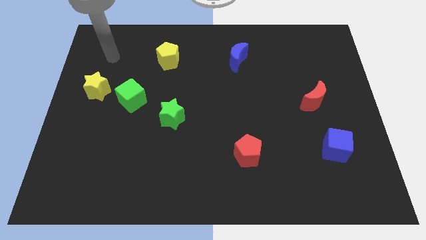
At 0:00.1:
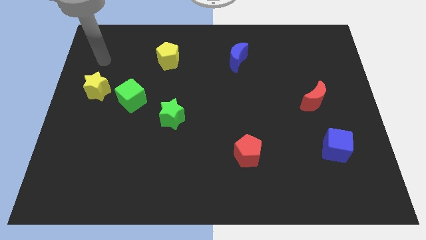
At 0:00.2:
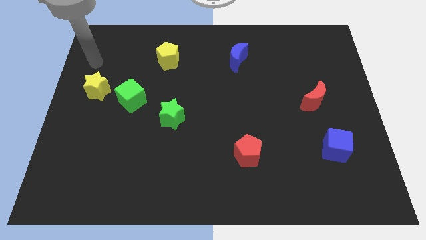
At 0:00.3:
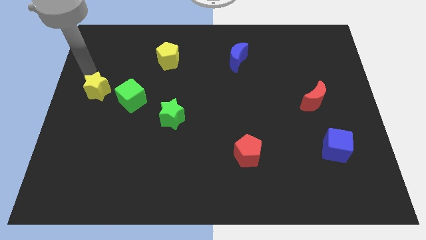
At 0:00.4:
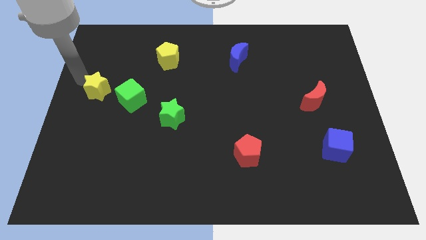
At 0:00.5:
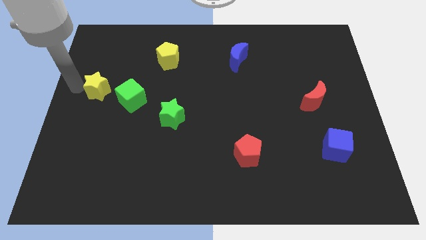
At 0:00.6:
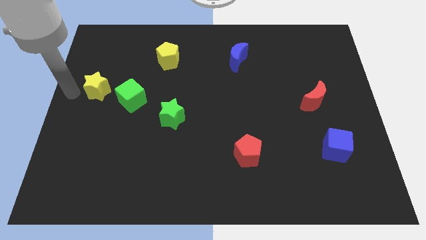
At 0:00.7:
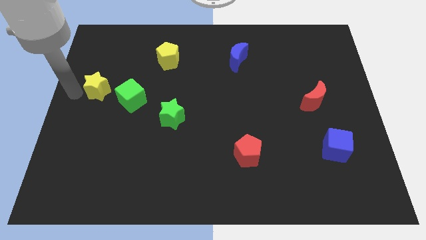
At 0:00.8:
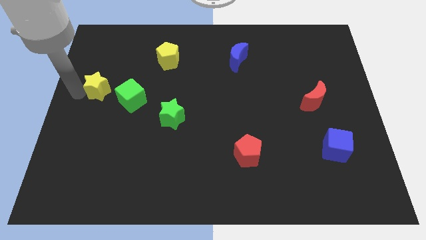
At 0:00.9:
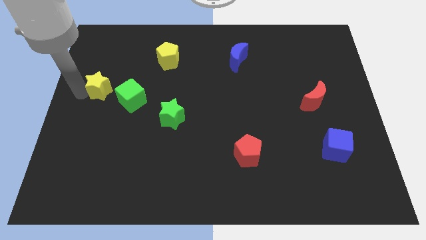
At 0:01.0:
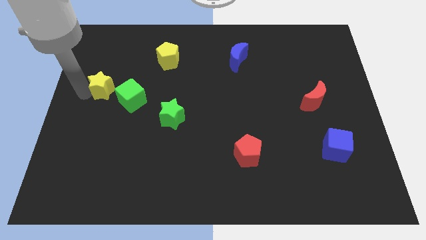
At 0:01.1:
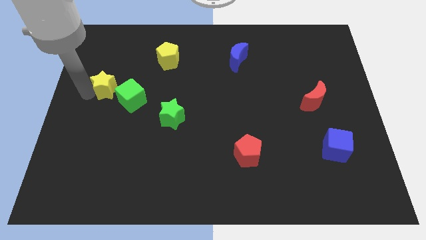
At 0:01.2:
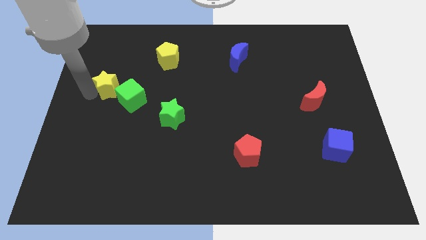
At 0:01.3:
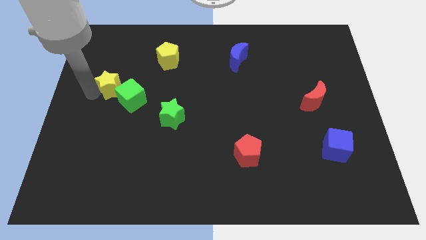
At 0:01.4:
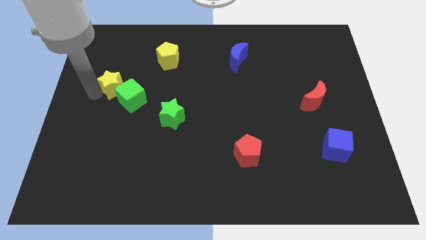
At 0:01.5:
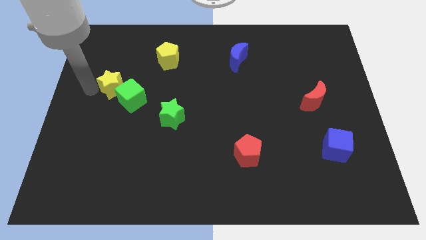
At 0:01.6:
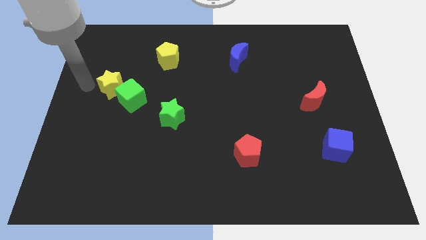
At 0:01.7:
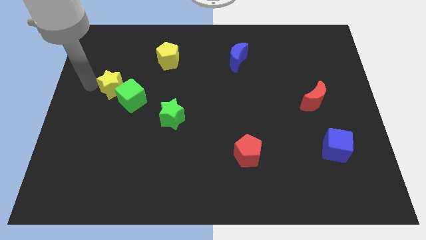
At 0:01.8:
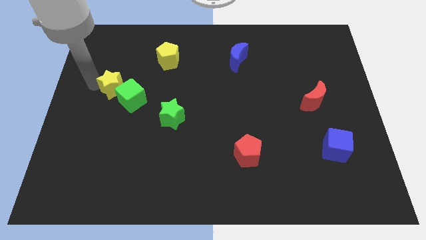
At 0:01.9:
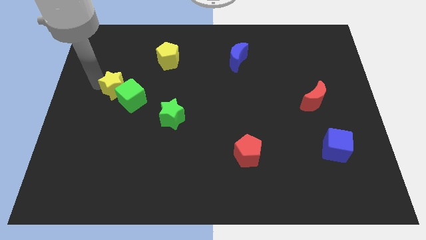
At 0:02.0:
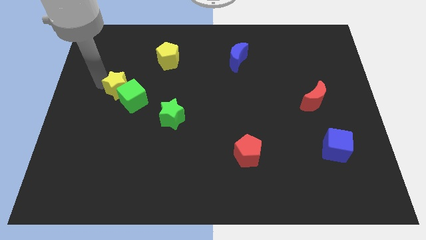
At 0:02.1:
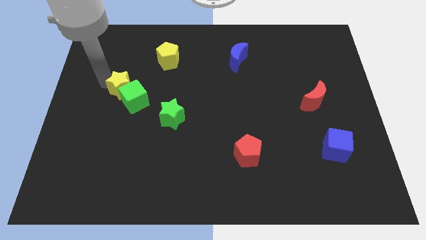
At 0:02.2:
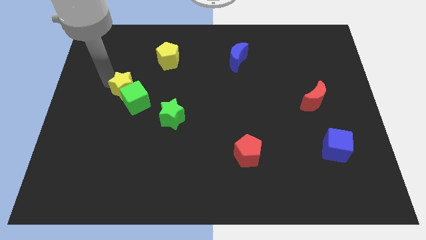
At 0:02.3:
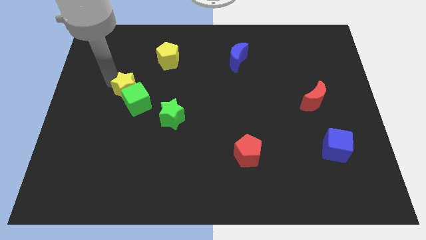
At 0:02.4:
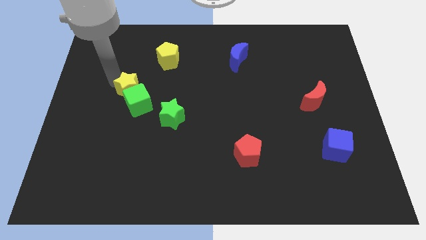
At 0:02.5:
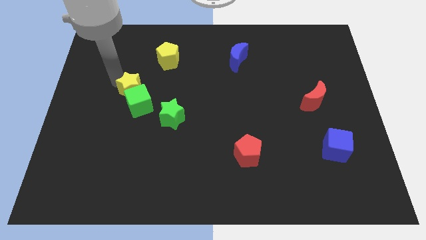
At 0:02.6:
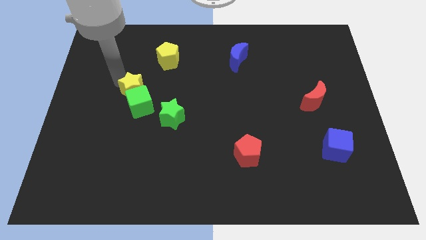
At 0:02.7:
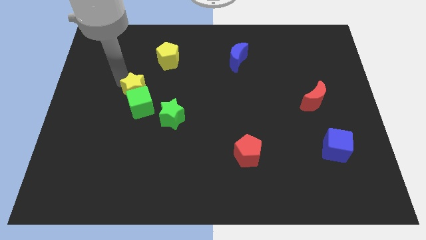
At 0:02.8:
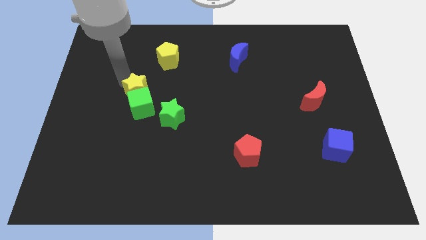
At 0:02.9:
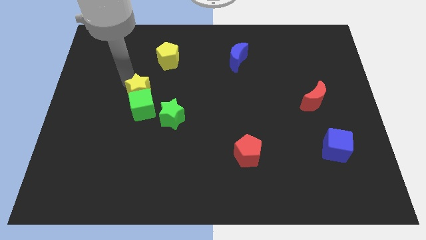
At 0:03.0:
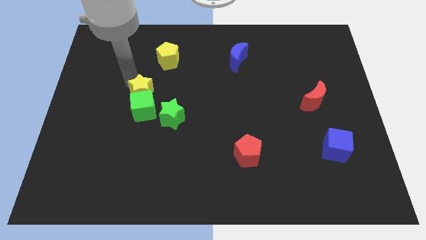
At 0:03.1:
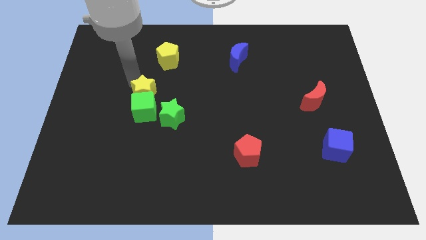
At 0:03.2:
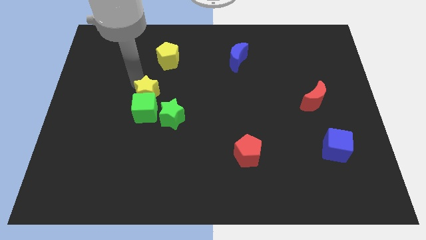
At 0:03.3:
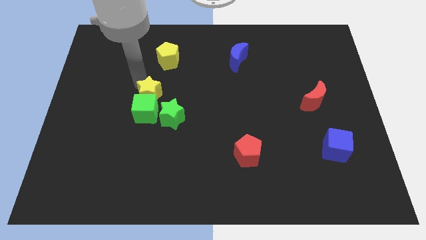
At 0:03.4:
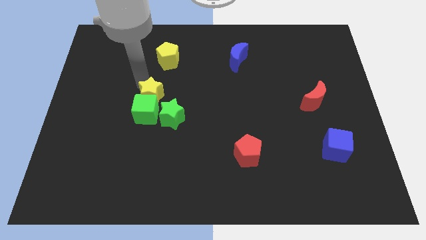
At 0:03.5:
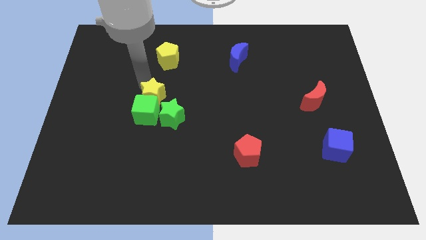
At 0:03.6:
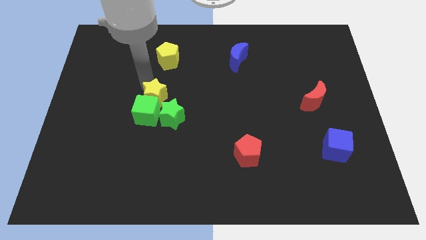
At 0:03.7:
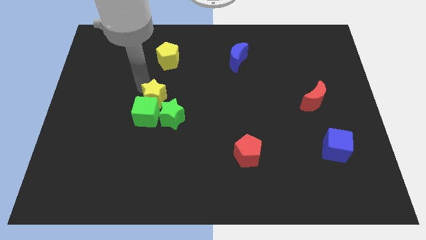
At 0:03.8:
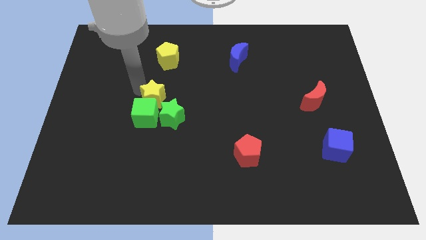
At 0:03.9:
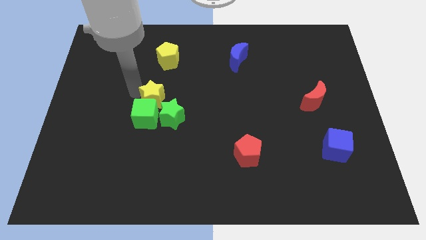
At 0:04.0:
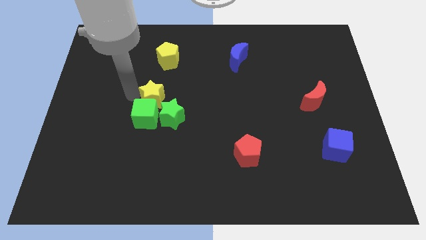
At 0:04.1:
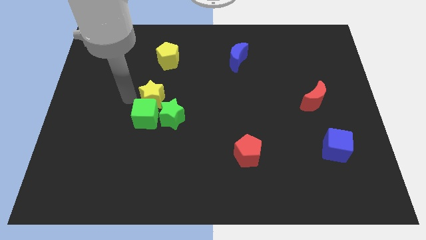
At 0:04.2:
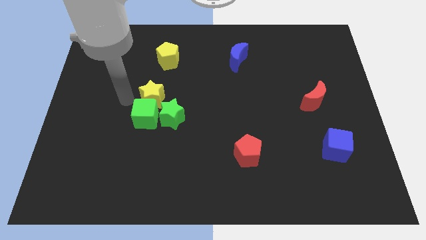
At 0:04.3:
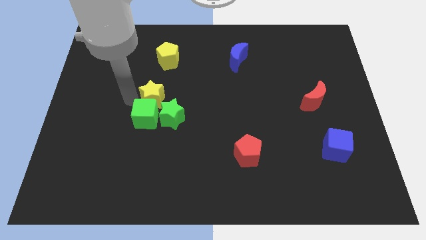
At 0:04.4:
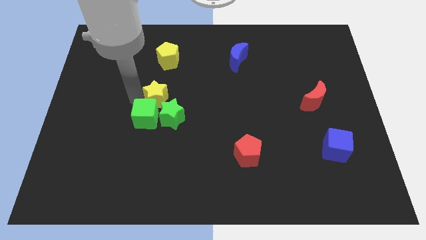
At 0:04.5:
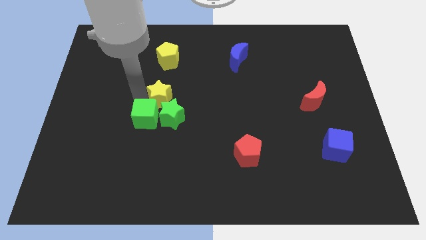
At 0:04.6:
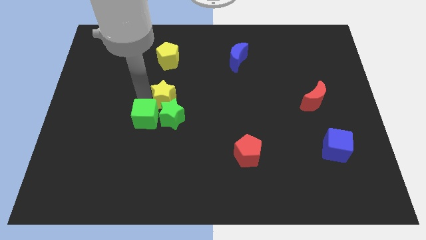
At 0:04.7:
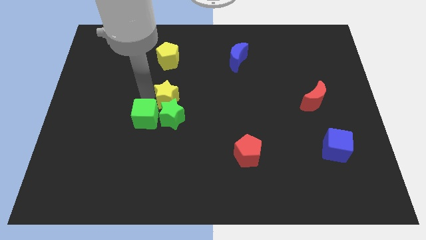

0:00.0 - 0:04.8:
push the yellow star to the top right side of the green star

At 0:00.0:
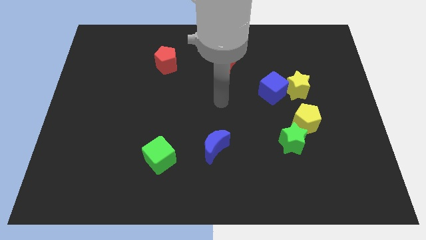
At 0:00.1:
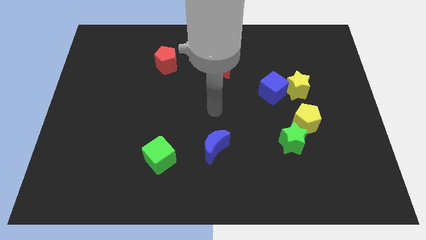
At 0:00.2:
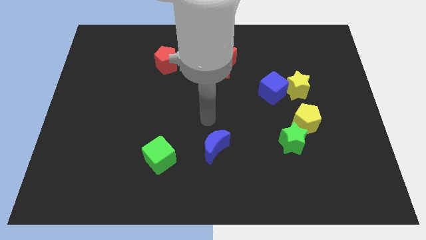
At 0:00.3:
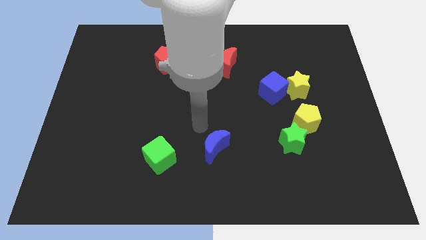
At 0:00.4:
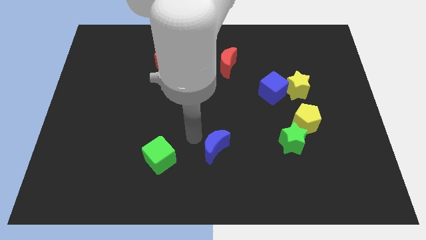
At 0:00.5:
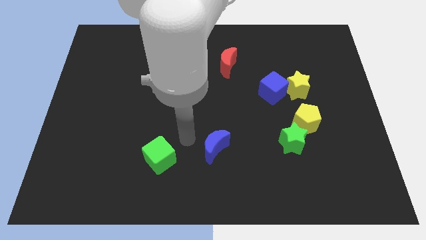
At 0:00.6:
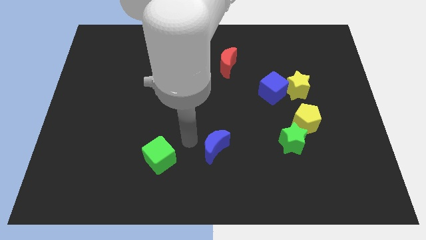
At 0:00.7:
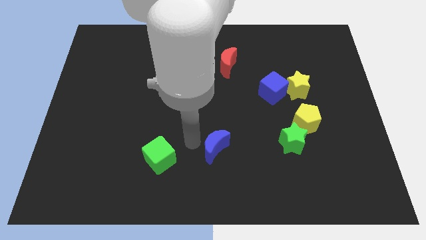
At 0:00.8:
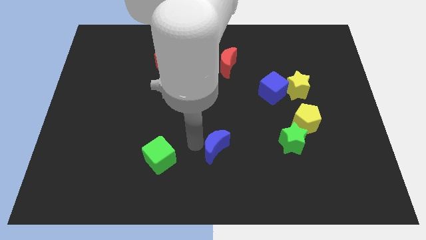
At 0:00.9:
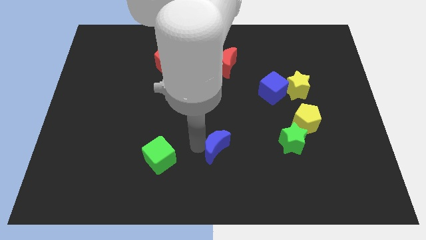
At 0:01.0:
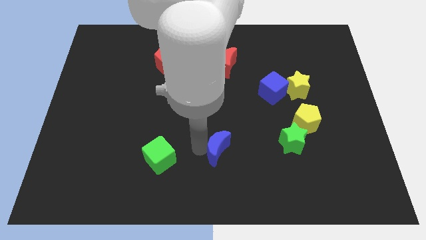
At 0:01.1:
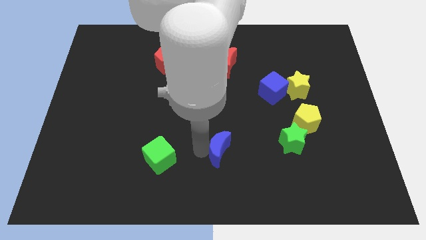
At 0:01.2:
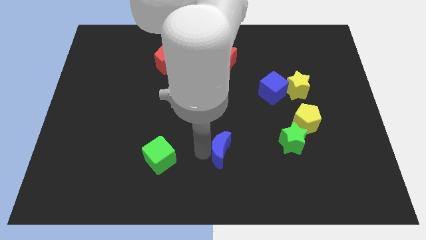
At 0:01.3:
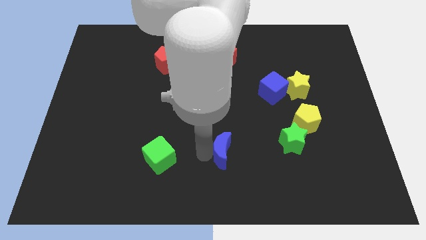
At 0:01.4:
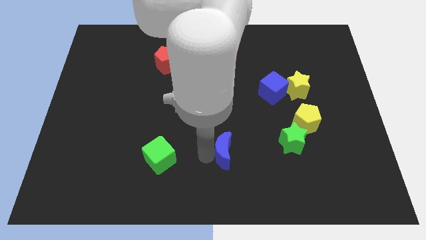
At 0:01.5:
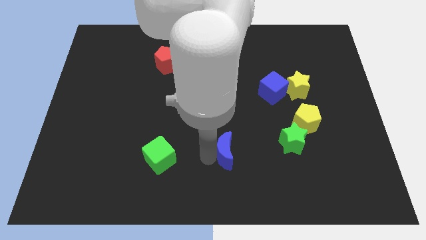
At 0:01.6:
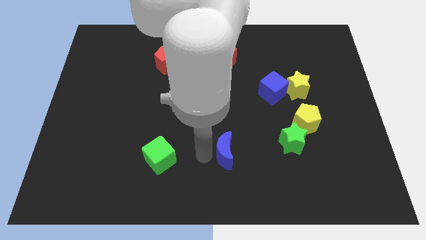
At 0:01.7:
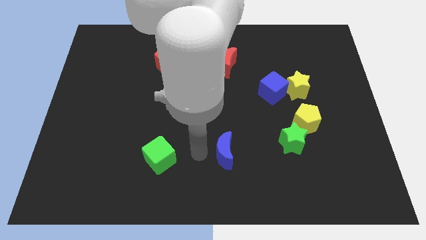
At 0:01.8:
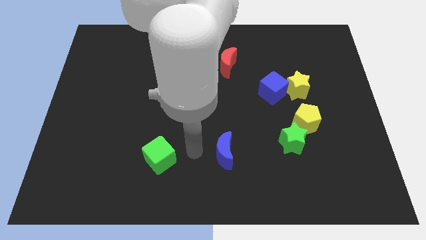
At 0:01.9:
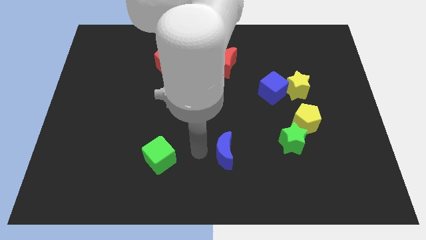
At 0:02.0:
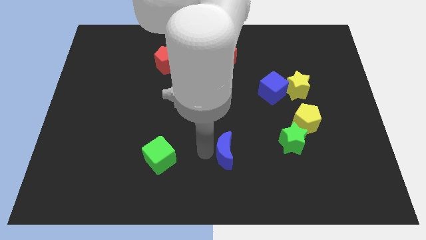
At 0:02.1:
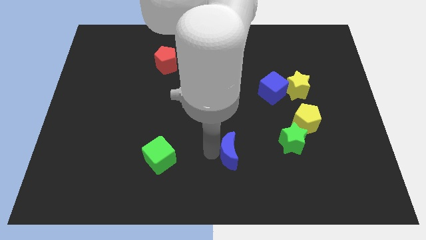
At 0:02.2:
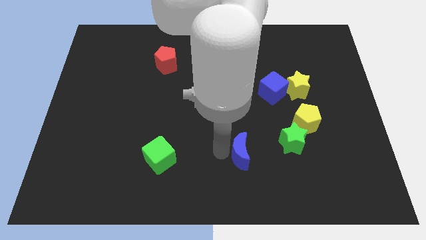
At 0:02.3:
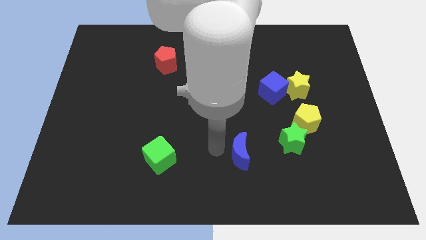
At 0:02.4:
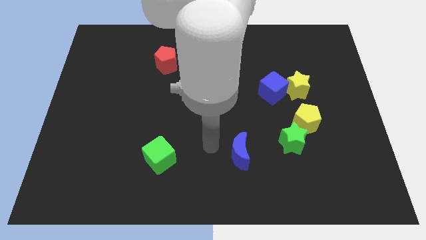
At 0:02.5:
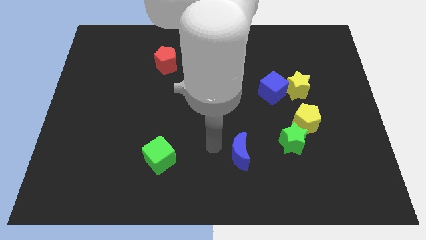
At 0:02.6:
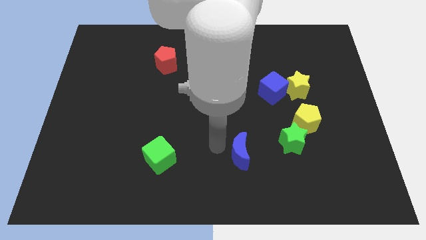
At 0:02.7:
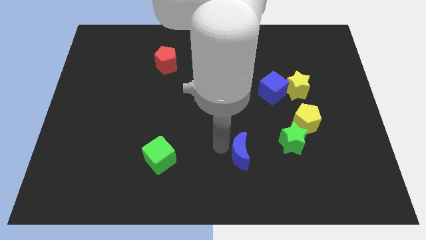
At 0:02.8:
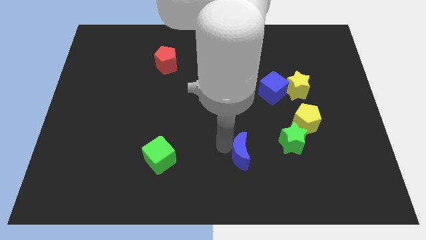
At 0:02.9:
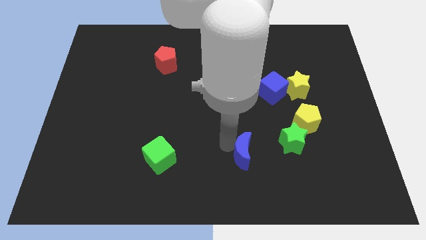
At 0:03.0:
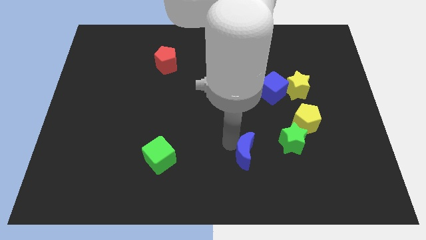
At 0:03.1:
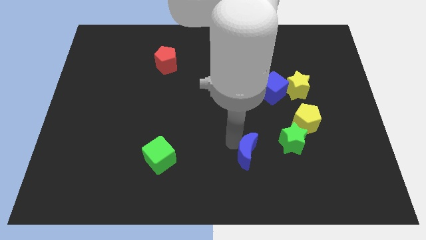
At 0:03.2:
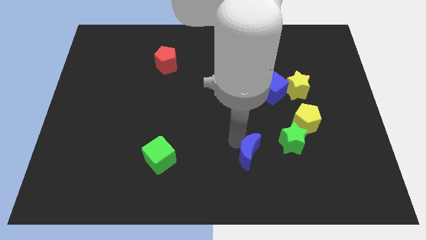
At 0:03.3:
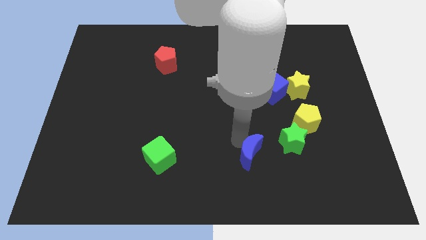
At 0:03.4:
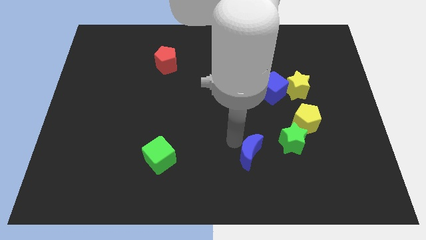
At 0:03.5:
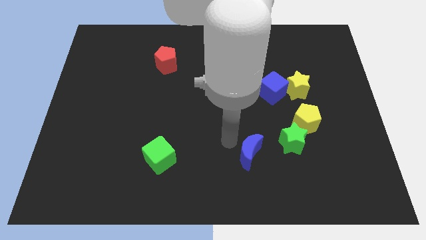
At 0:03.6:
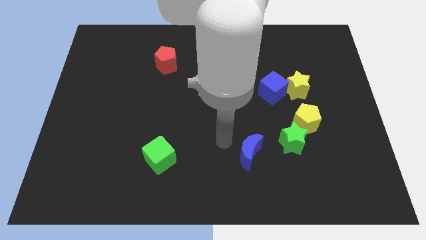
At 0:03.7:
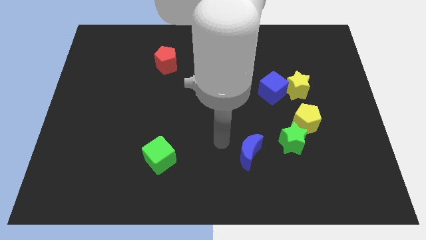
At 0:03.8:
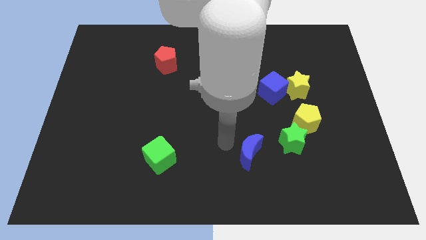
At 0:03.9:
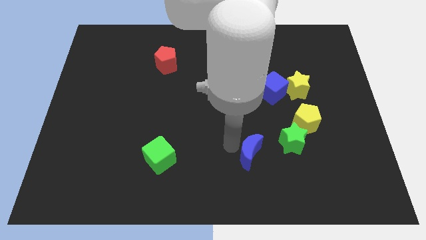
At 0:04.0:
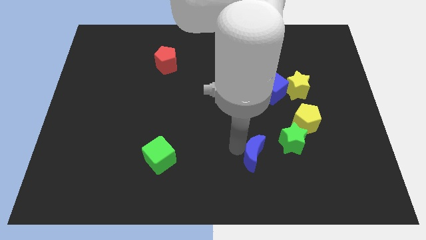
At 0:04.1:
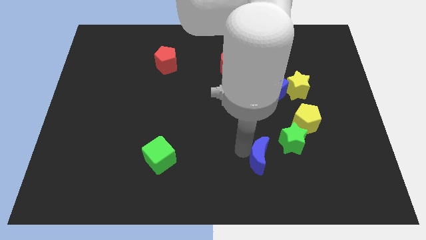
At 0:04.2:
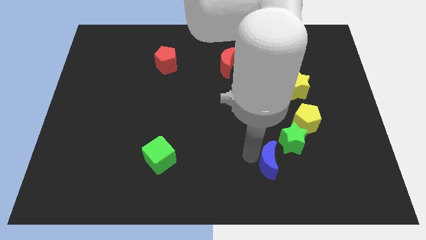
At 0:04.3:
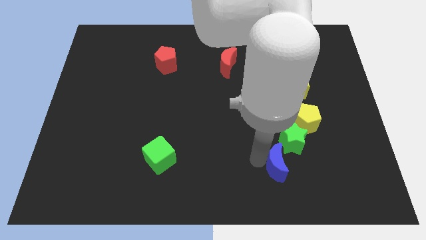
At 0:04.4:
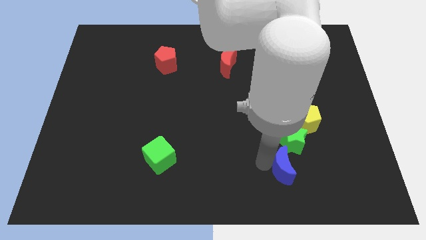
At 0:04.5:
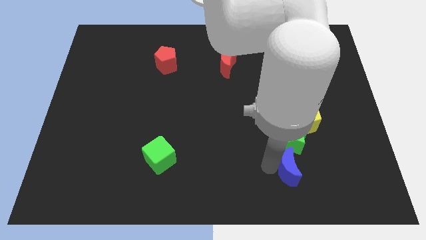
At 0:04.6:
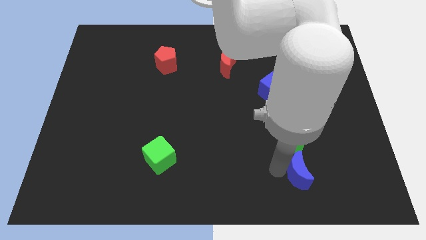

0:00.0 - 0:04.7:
move the blue moon to the bottom of the yellow pentagon
